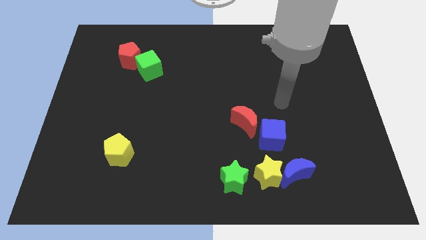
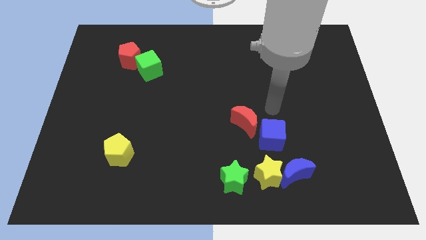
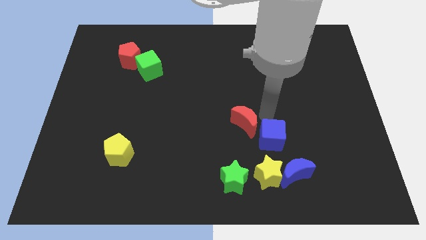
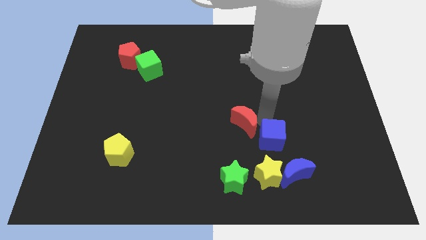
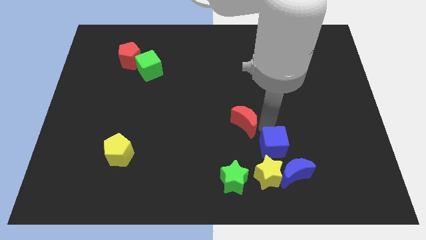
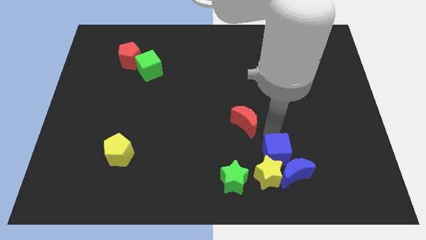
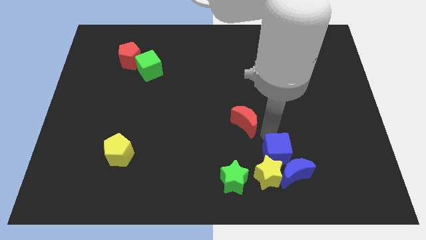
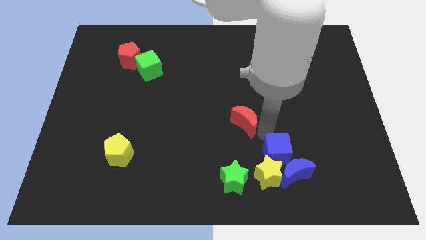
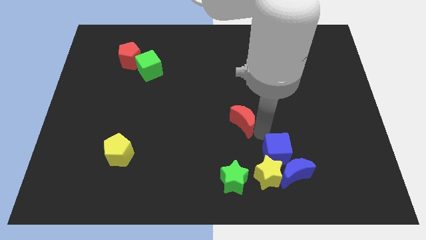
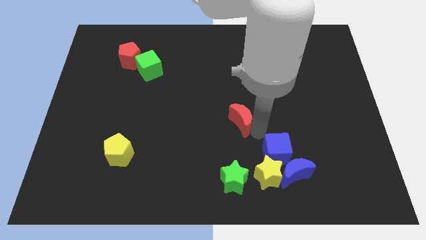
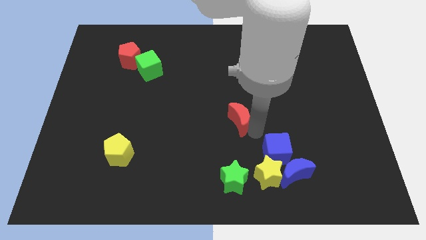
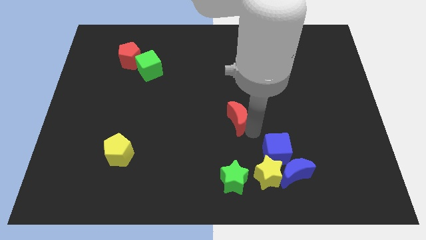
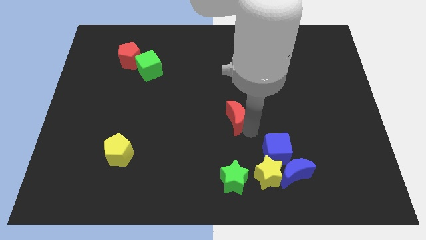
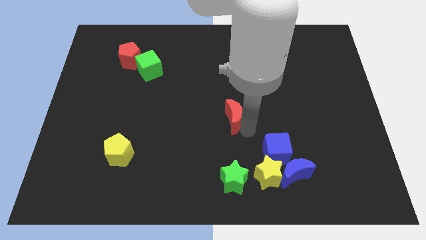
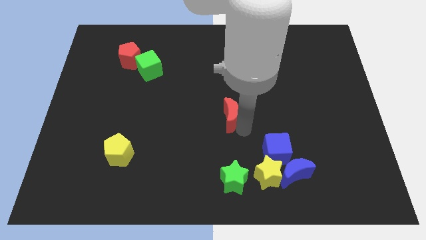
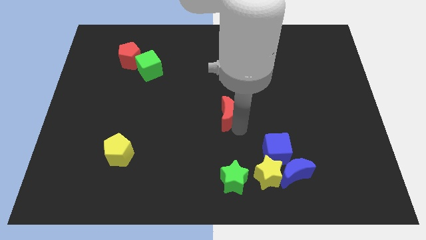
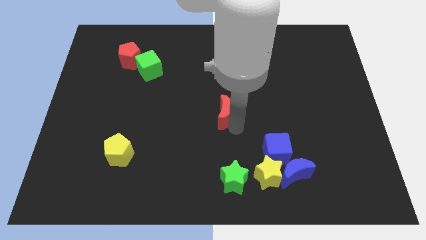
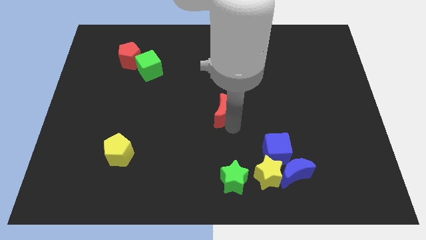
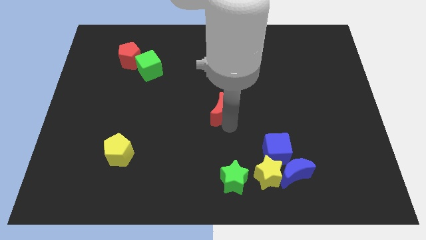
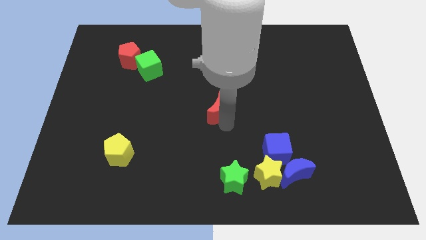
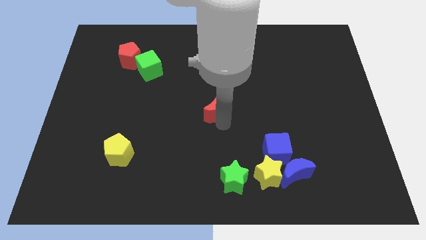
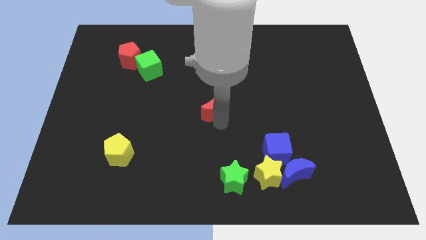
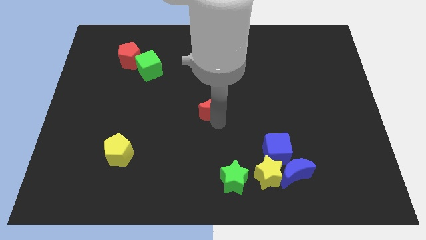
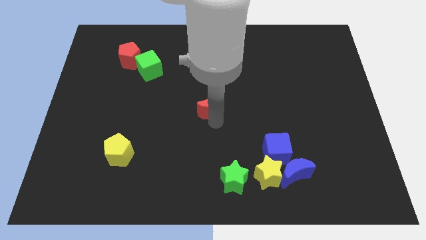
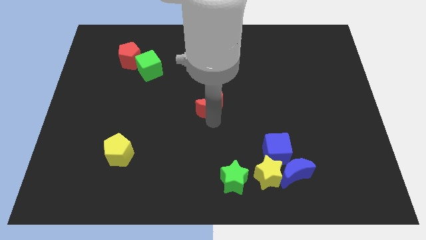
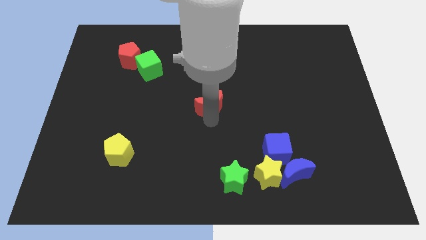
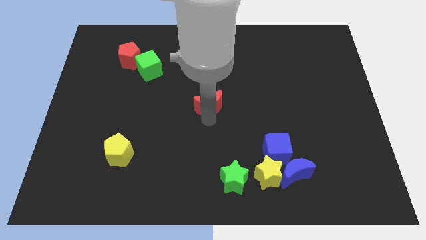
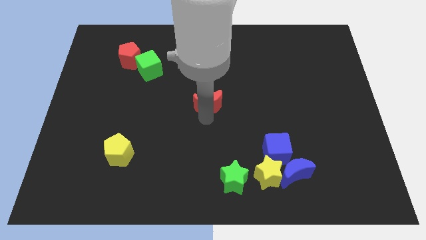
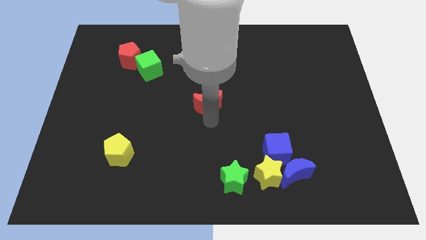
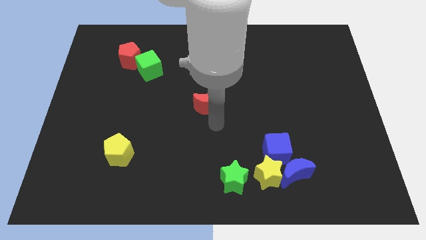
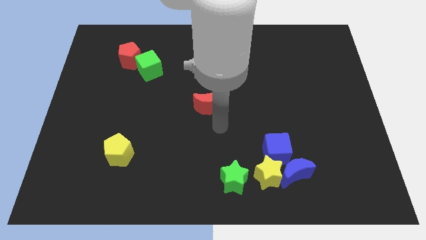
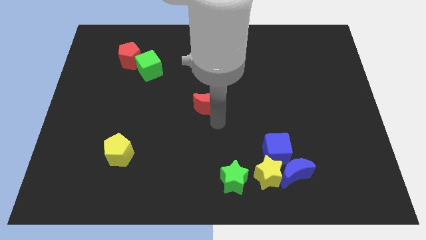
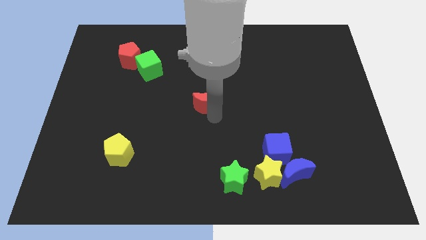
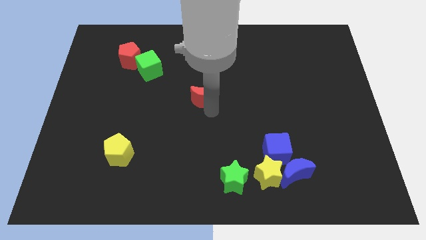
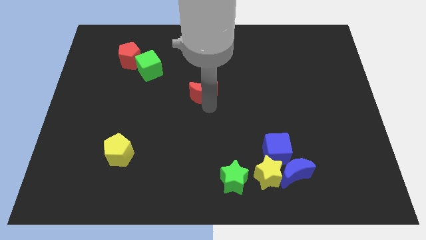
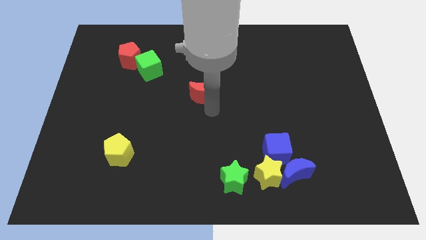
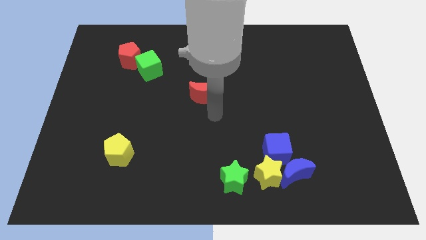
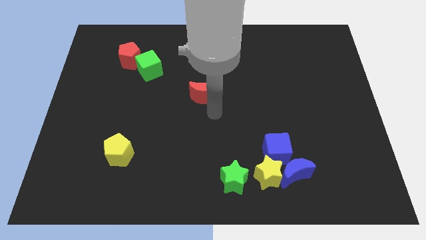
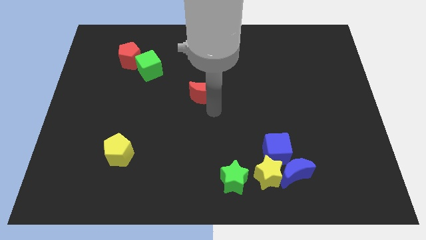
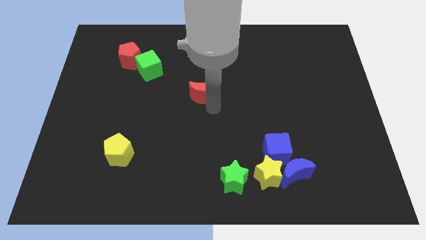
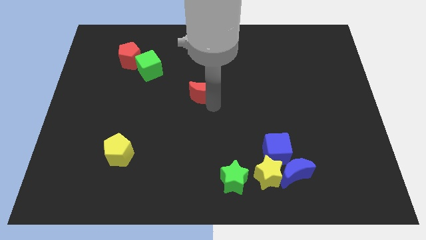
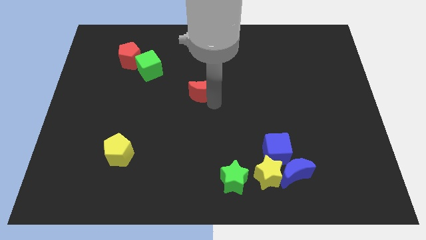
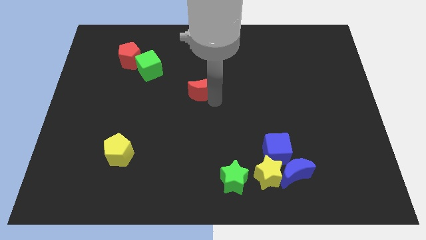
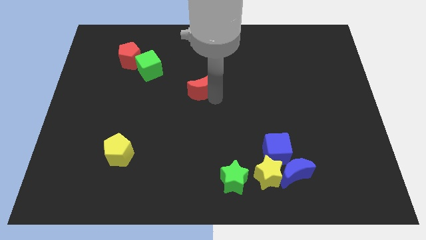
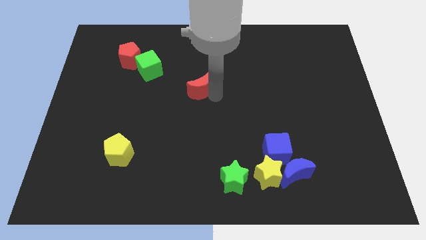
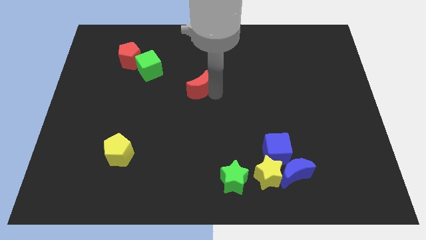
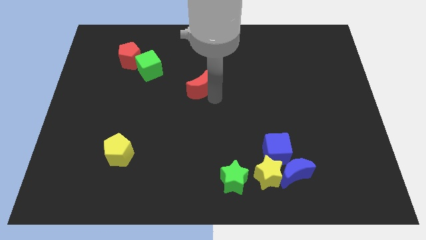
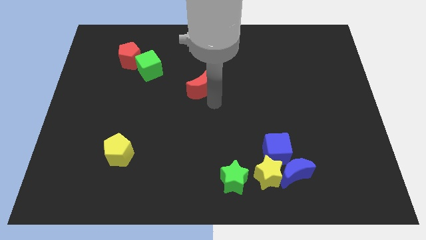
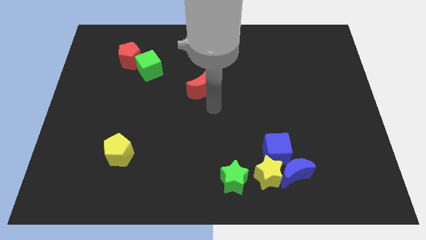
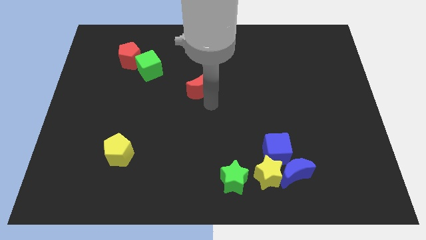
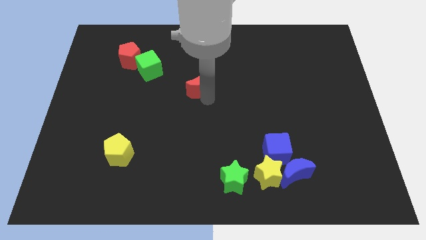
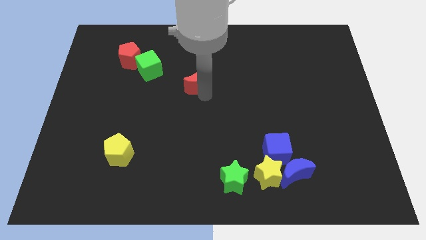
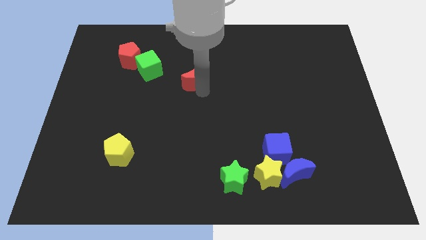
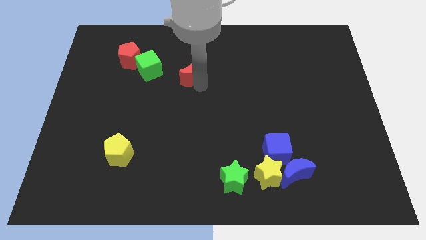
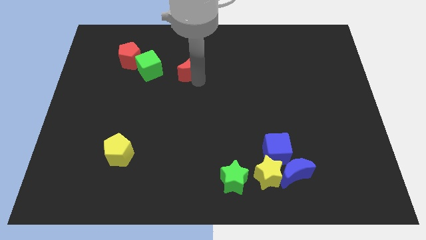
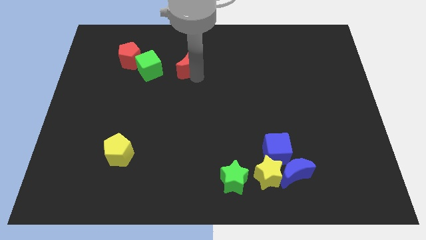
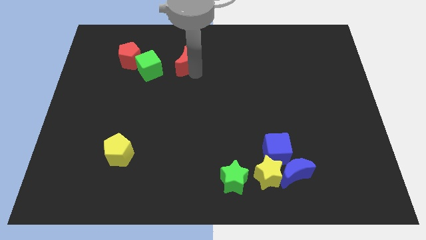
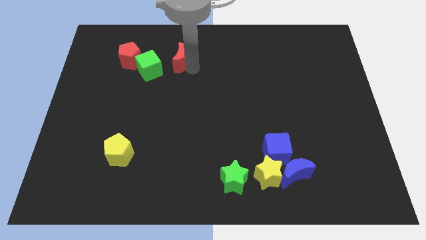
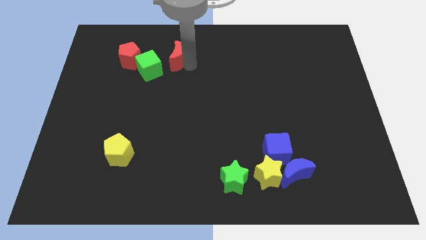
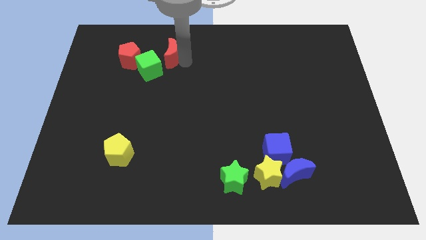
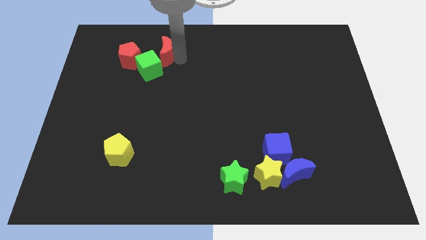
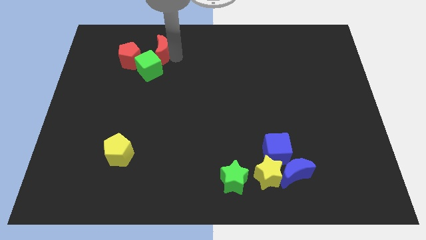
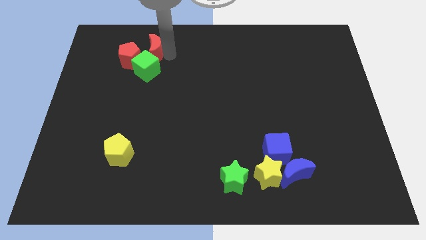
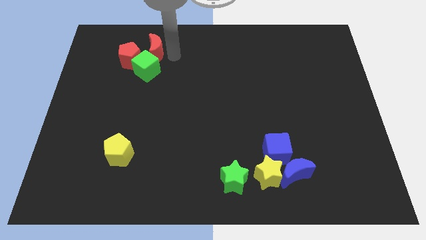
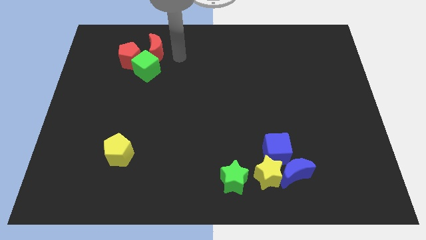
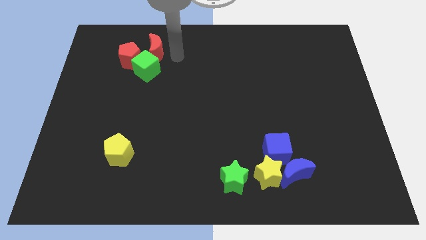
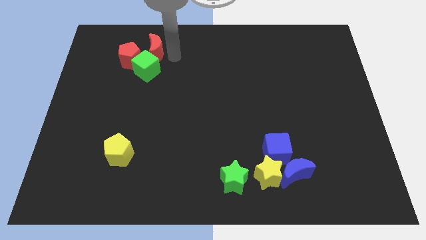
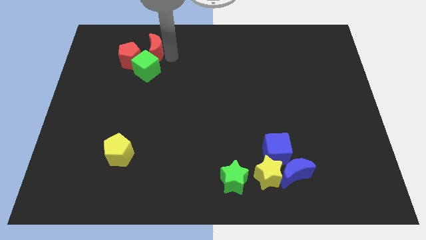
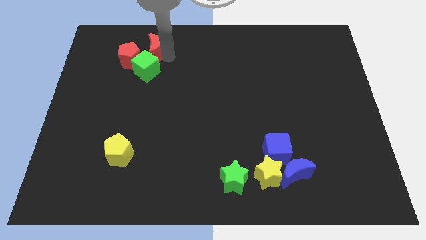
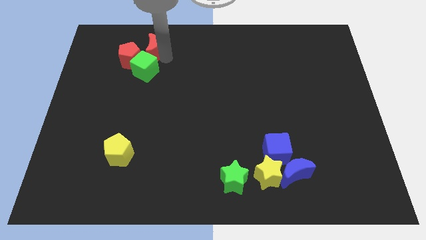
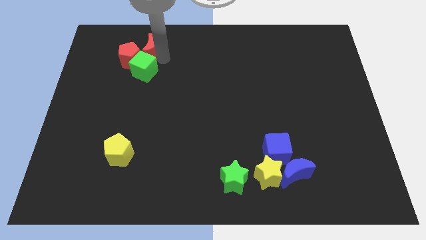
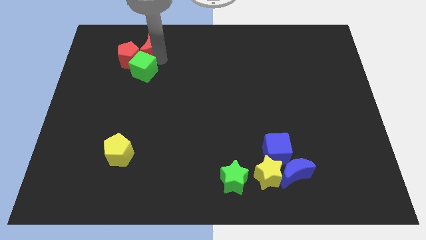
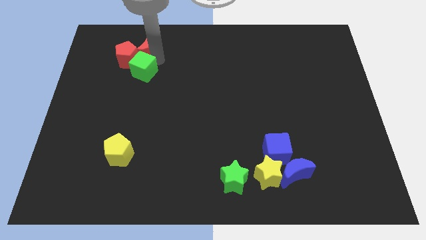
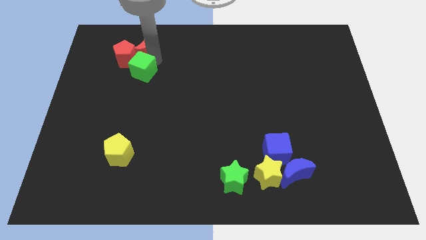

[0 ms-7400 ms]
push the red moon to the top left side of the green cube
